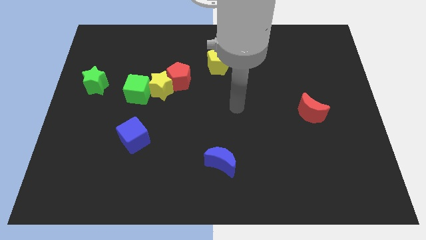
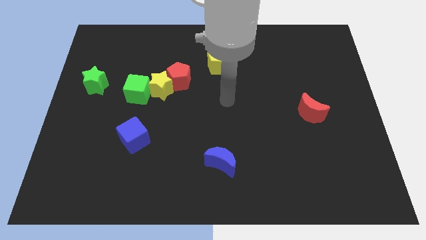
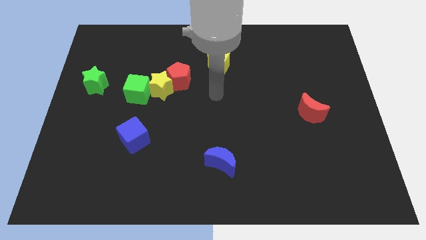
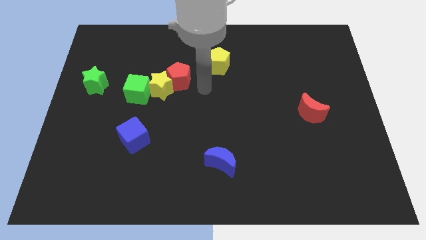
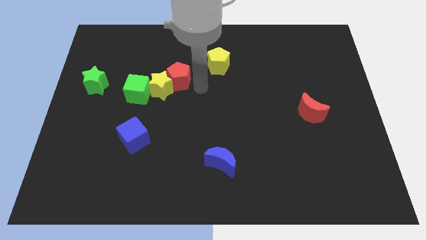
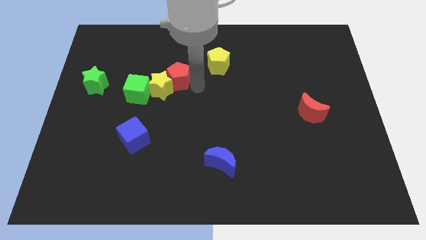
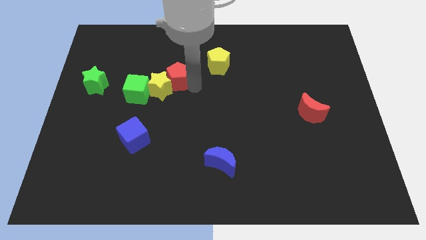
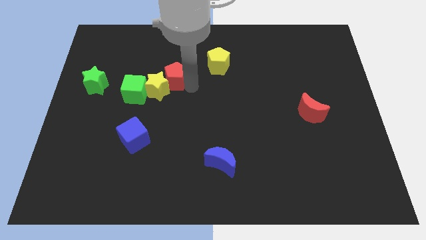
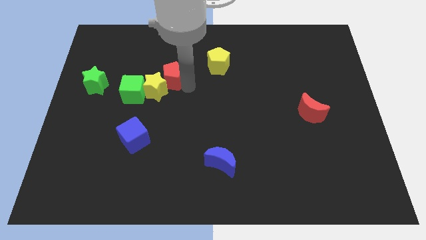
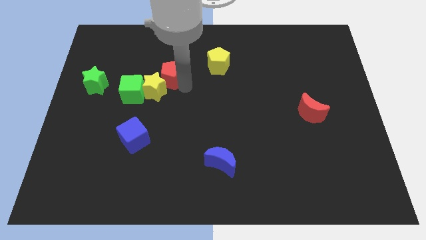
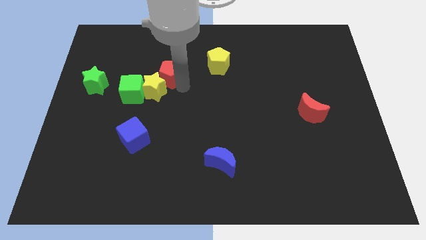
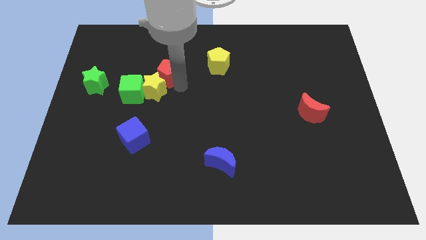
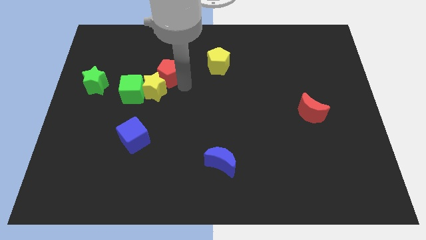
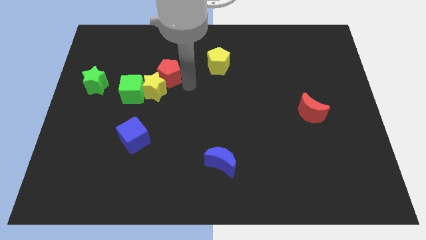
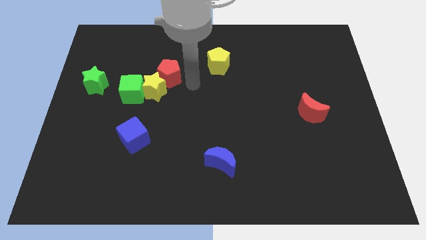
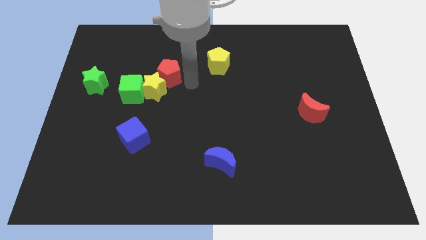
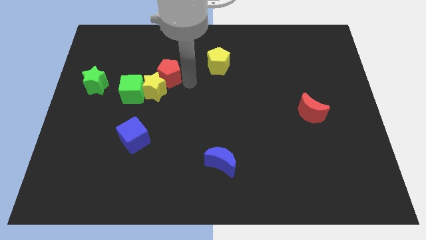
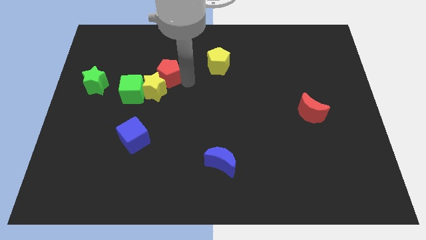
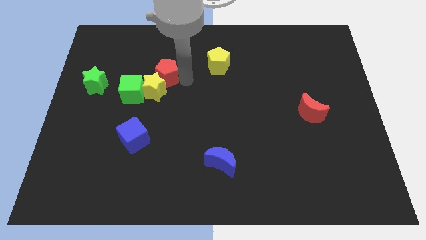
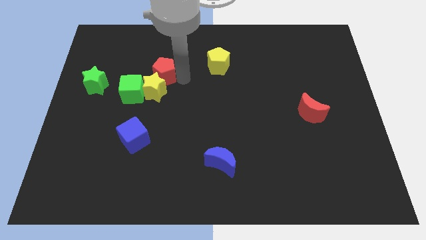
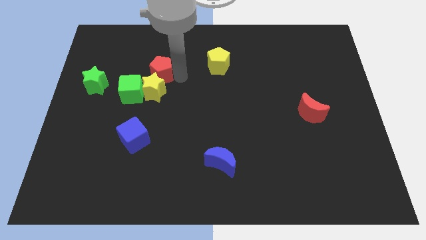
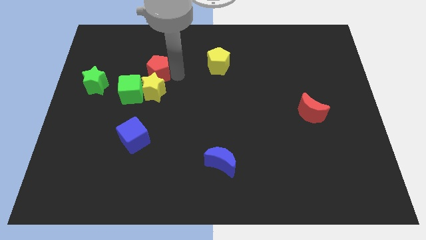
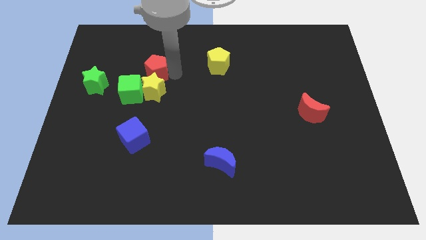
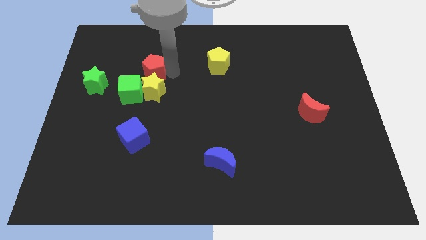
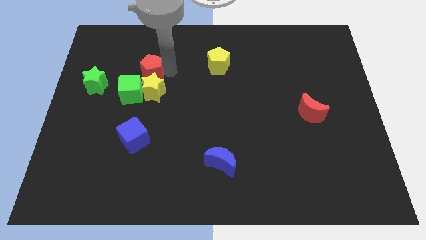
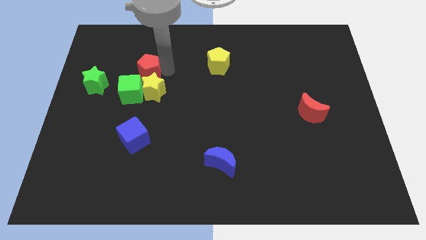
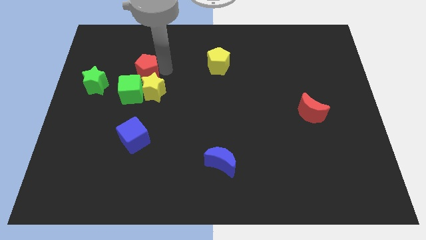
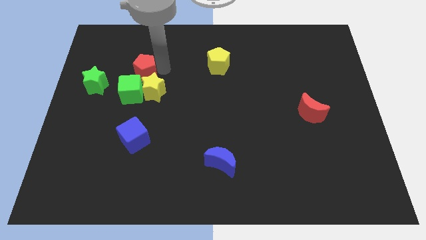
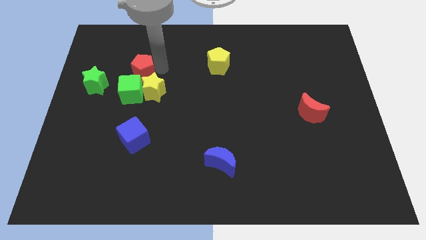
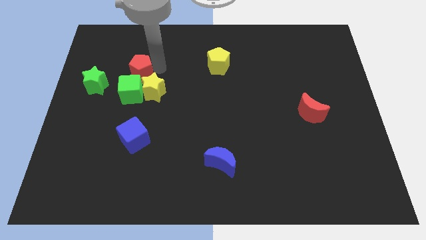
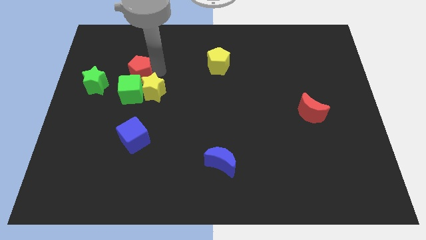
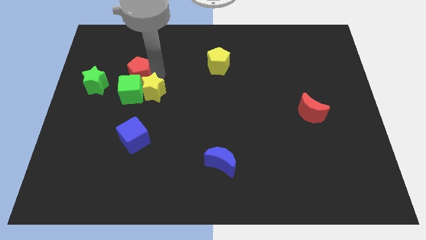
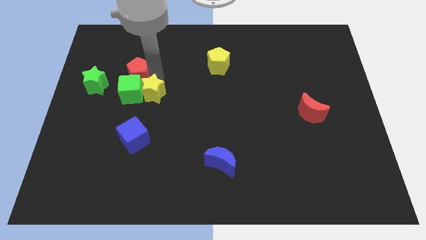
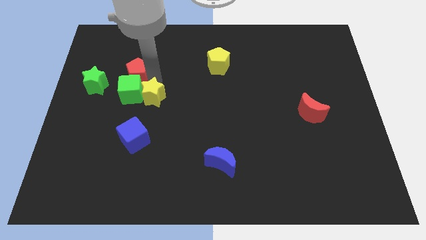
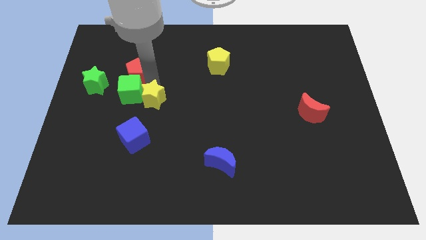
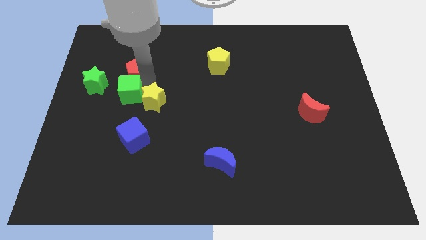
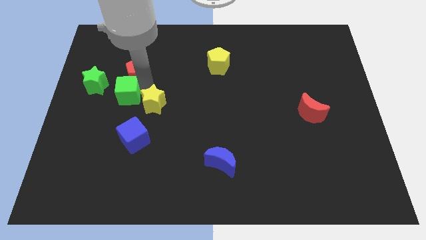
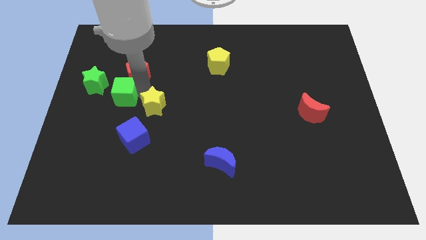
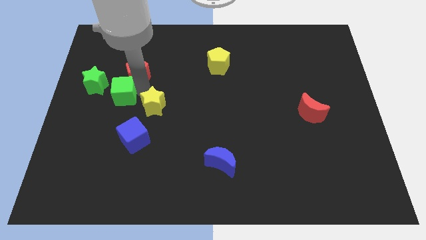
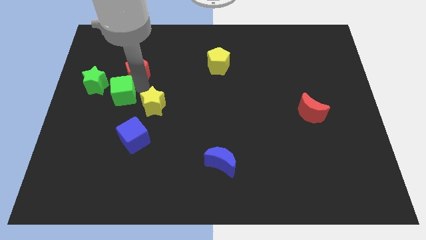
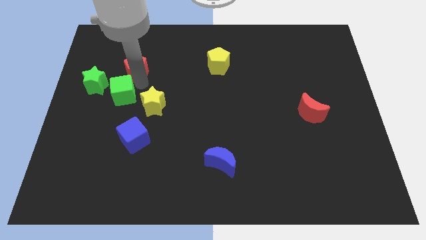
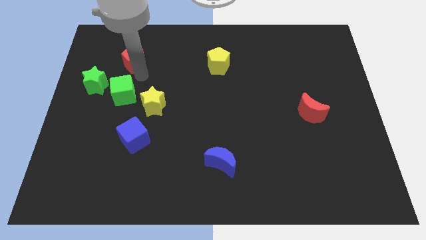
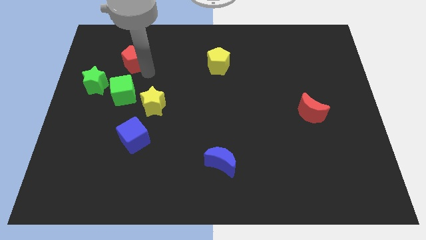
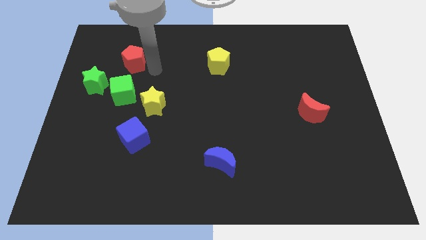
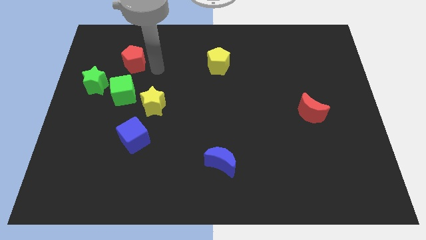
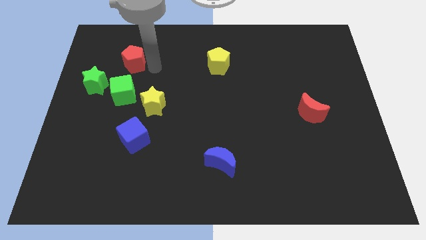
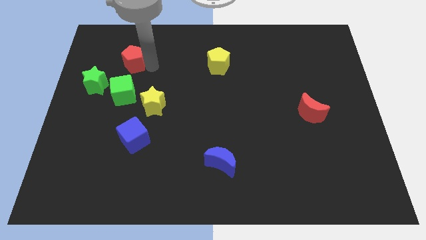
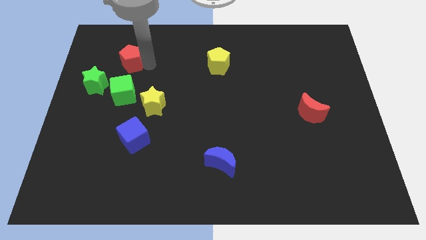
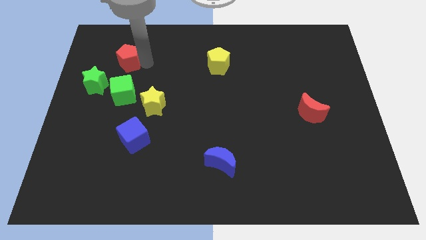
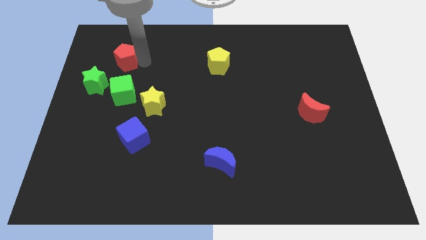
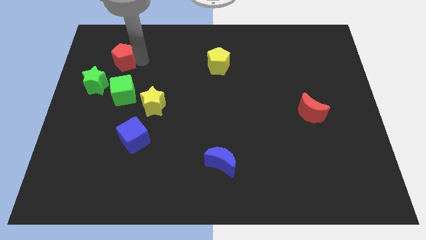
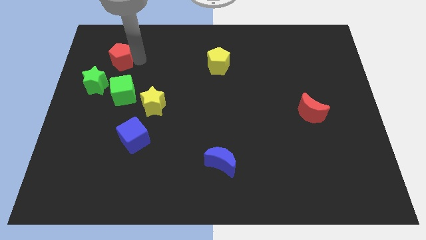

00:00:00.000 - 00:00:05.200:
move the red pentagon to the top of the green star

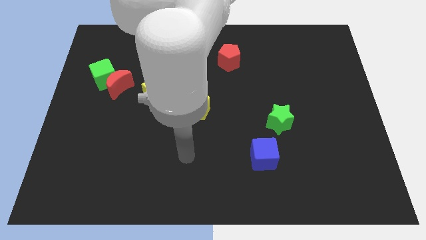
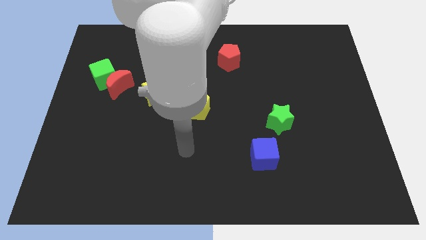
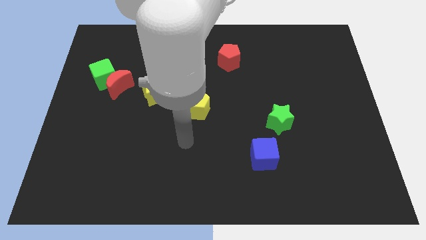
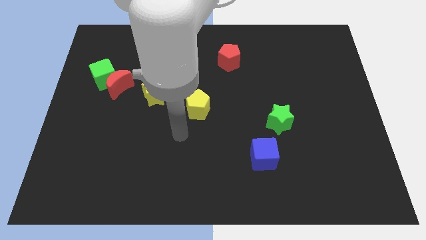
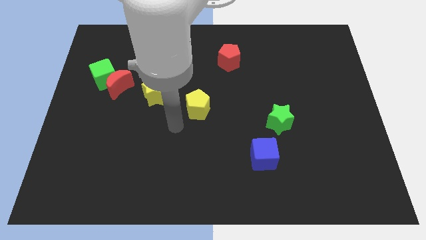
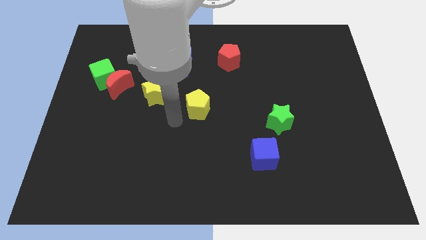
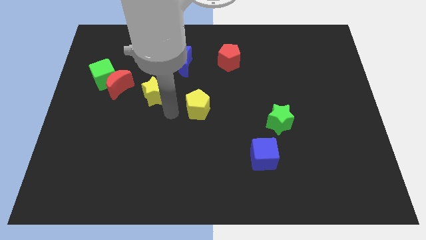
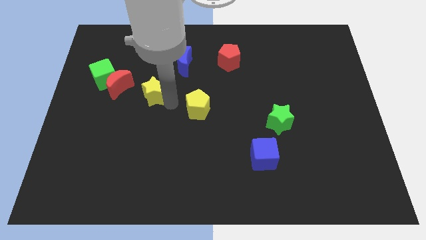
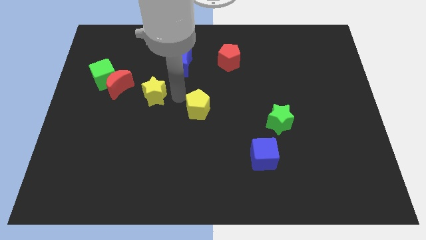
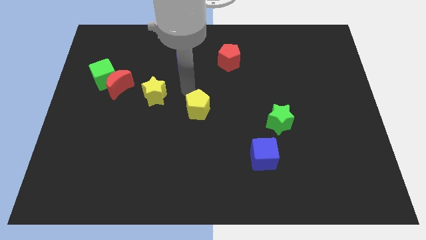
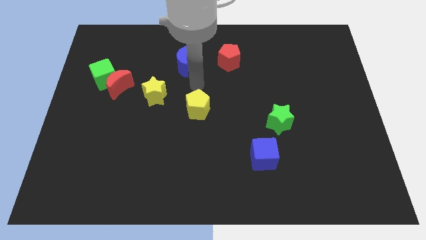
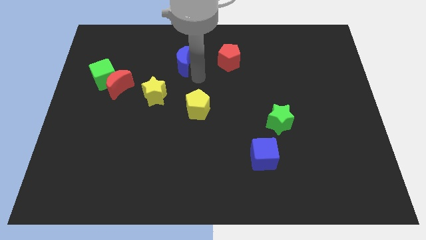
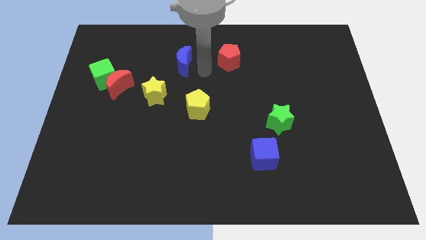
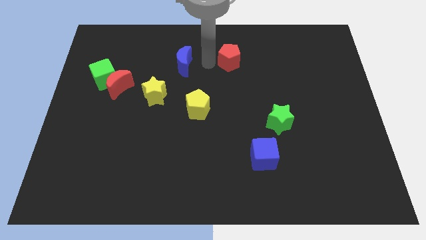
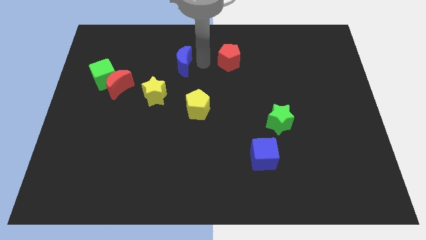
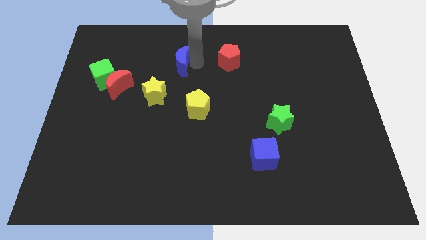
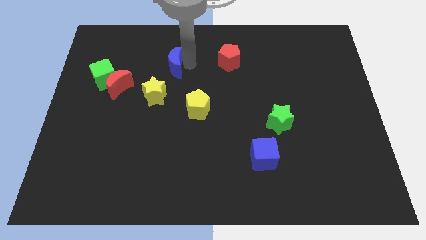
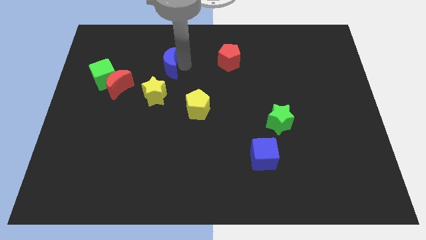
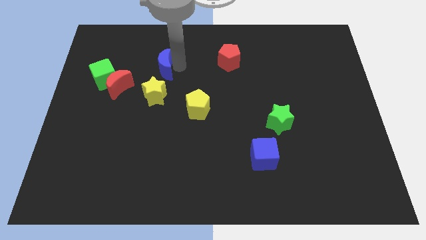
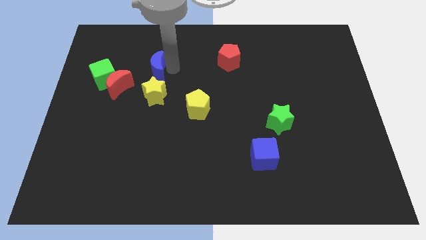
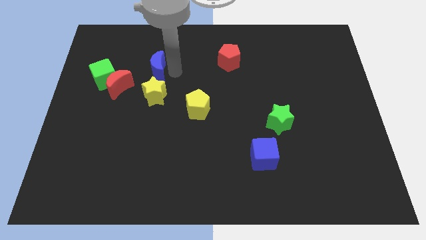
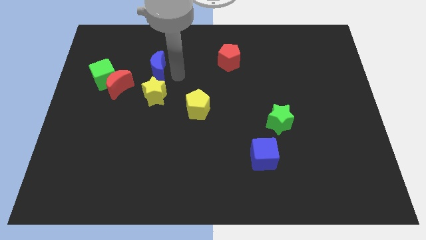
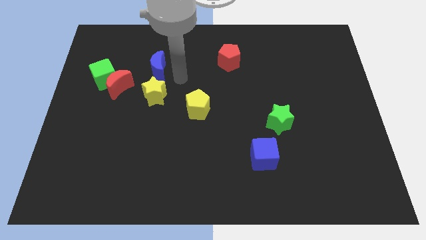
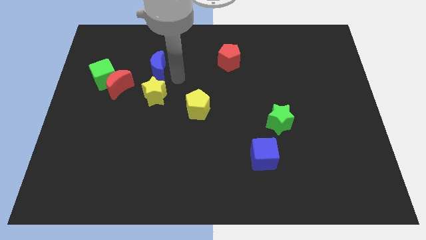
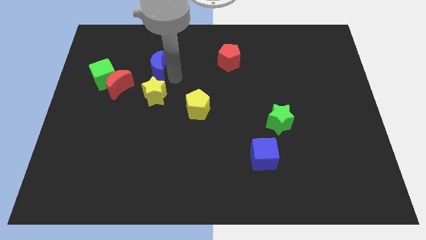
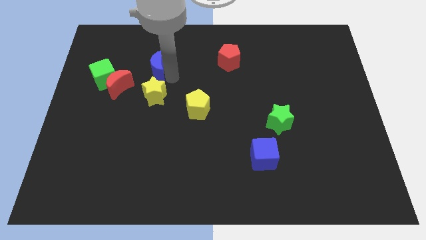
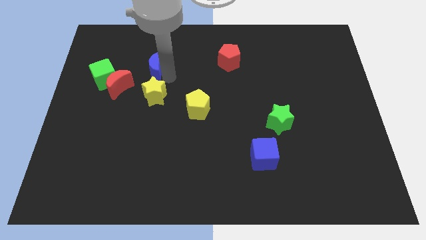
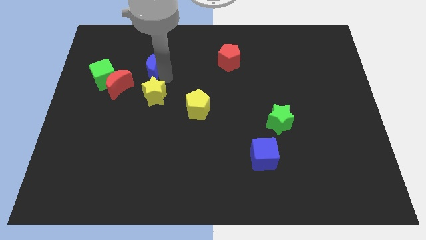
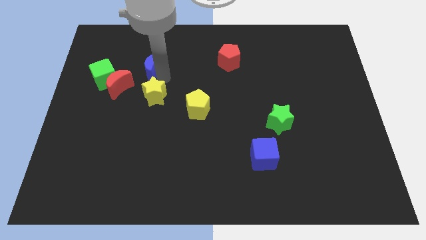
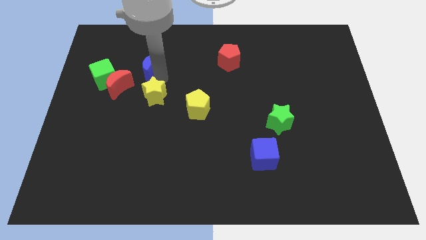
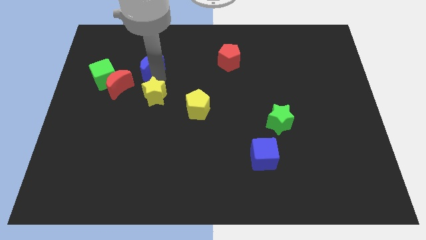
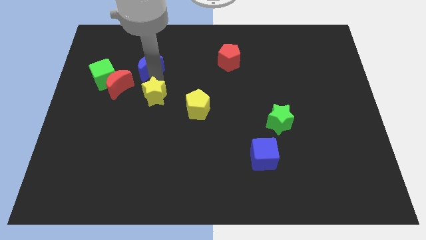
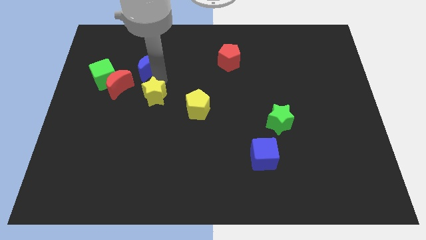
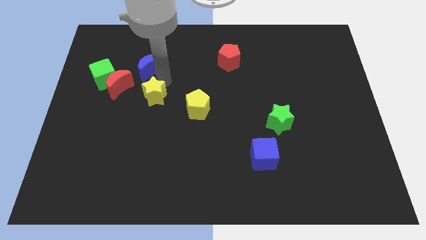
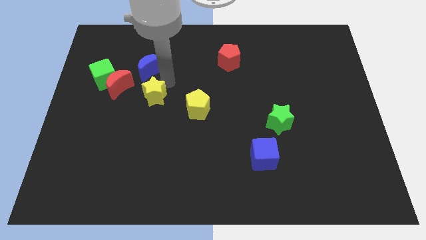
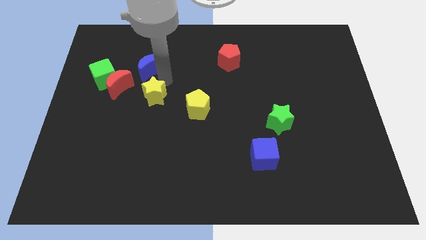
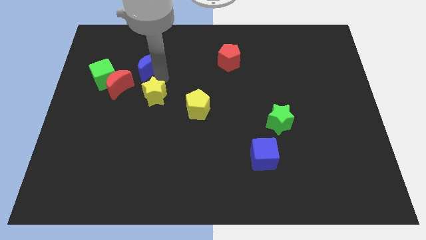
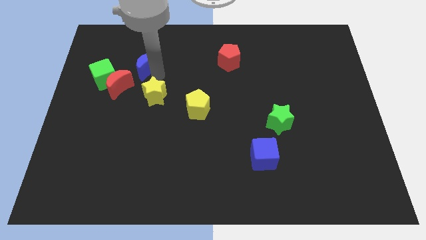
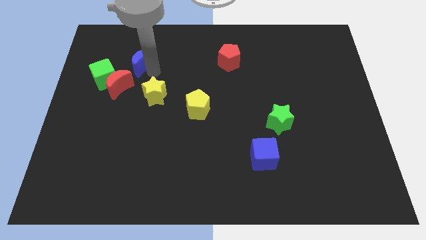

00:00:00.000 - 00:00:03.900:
slide the blue moon above the red moon
